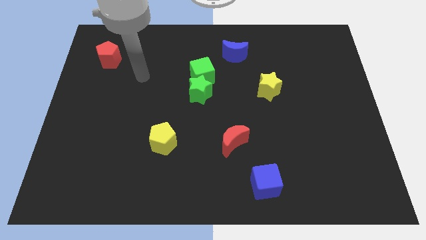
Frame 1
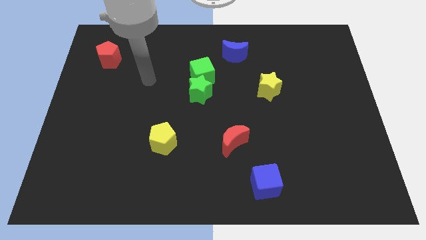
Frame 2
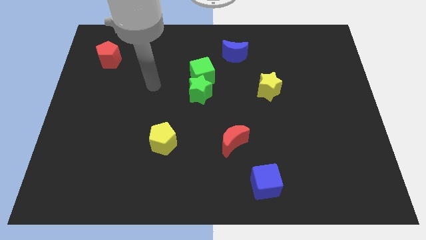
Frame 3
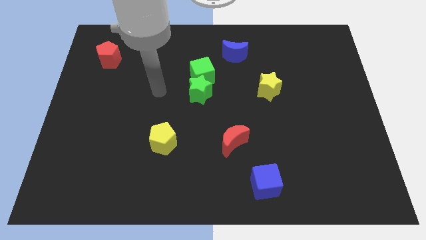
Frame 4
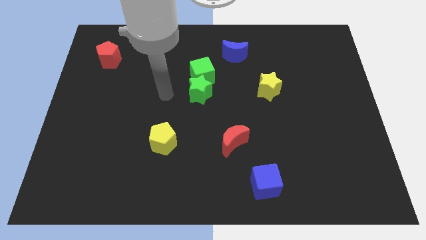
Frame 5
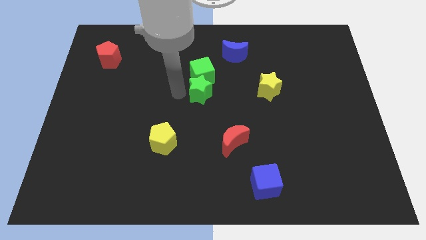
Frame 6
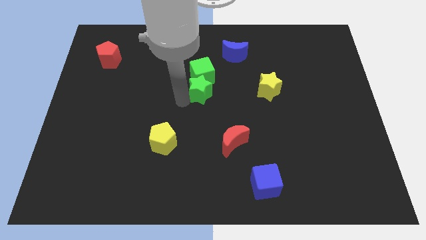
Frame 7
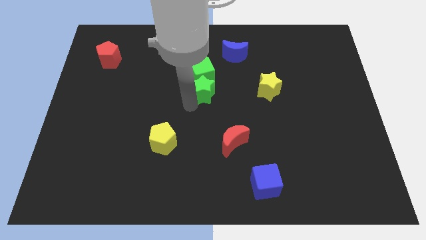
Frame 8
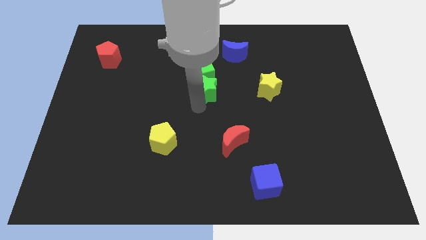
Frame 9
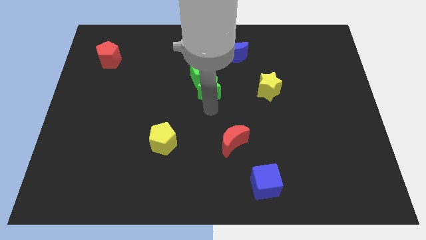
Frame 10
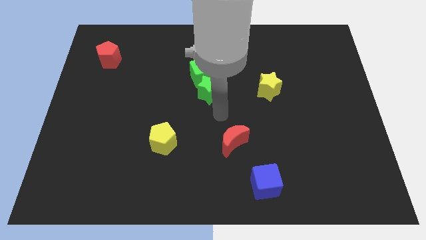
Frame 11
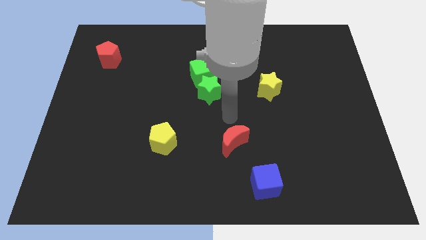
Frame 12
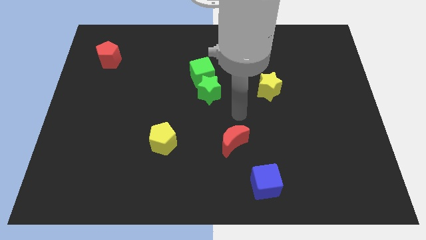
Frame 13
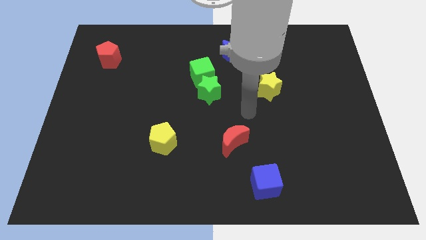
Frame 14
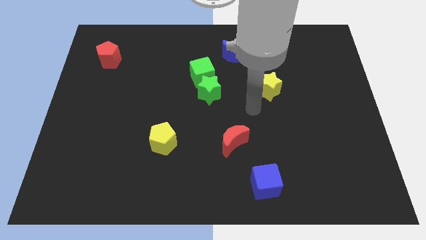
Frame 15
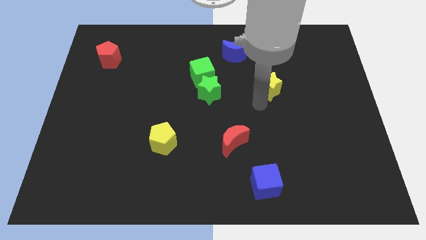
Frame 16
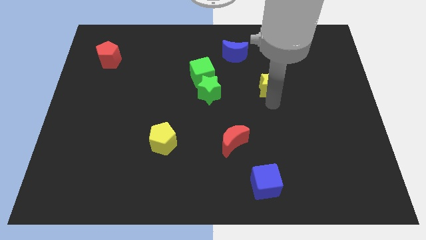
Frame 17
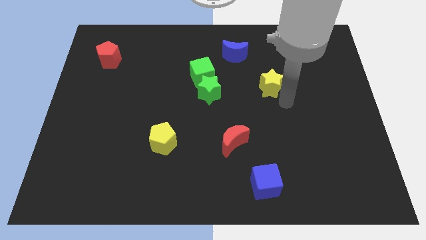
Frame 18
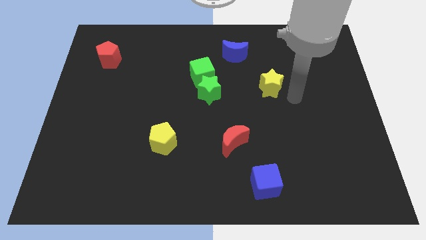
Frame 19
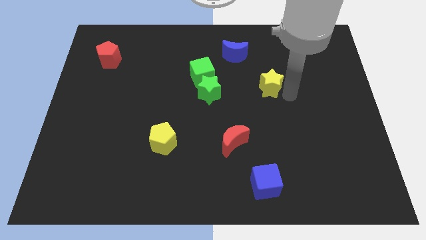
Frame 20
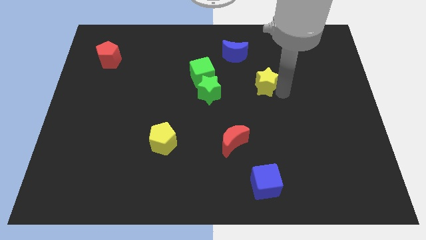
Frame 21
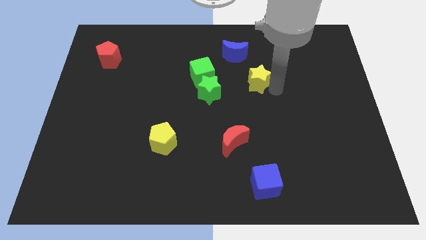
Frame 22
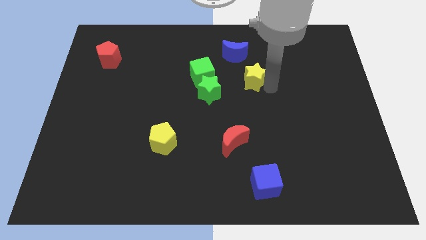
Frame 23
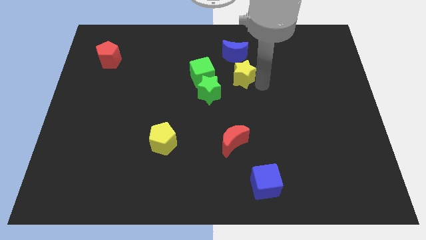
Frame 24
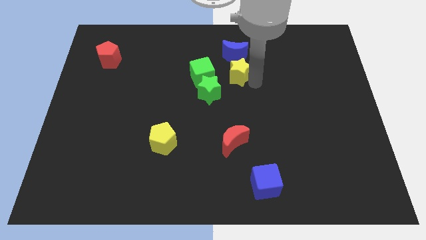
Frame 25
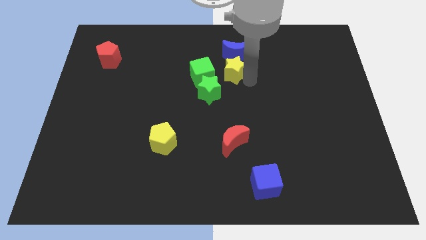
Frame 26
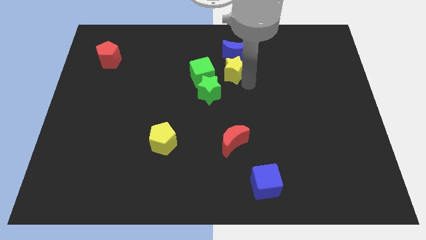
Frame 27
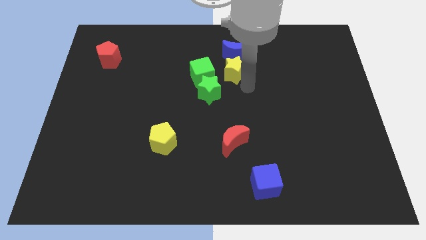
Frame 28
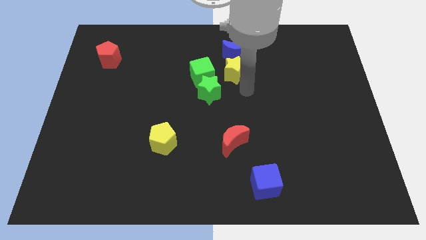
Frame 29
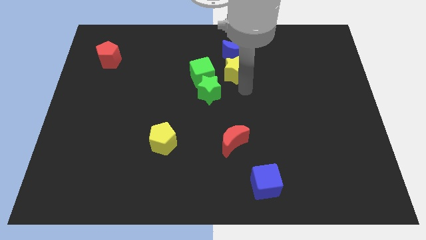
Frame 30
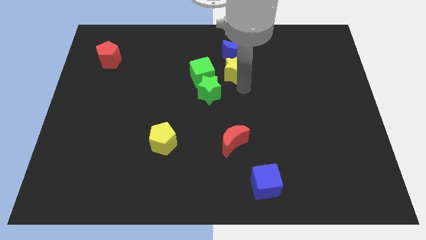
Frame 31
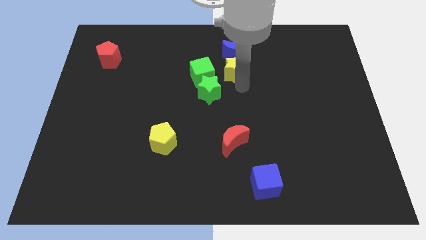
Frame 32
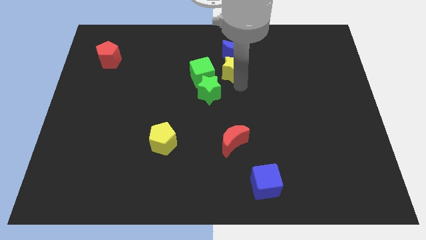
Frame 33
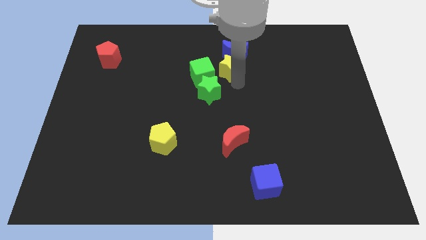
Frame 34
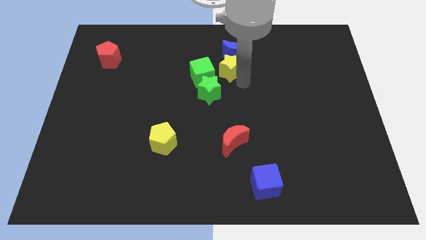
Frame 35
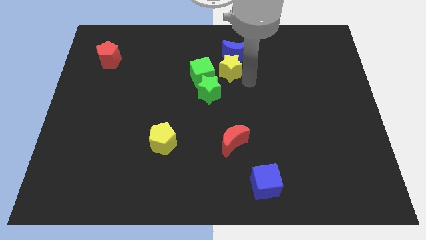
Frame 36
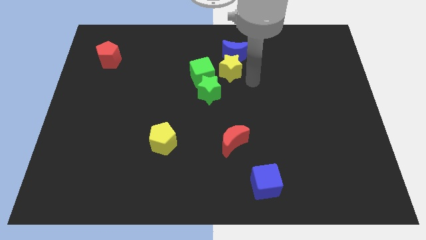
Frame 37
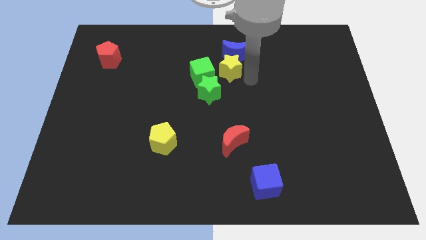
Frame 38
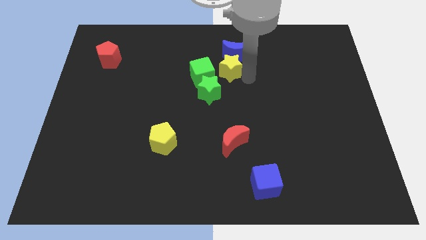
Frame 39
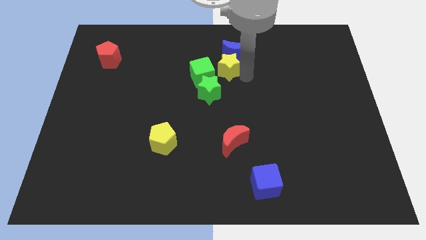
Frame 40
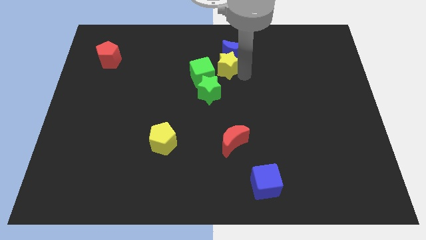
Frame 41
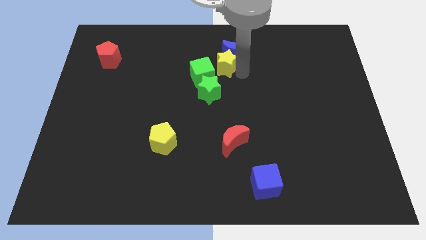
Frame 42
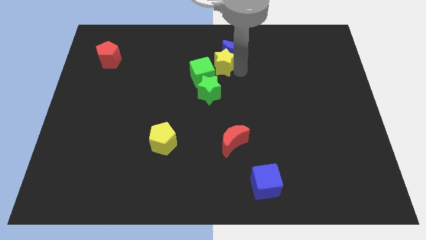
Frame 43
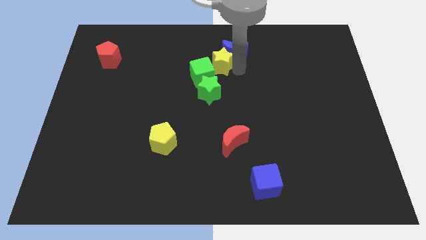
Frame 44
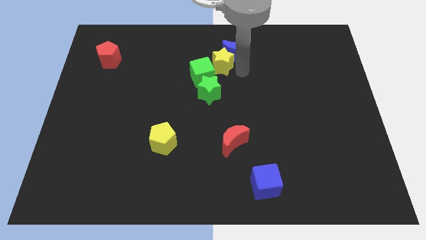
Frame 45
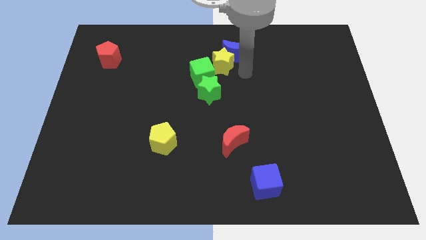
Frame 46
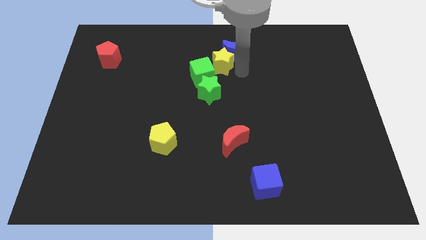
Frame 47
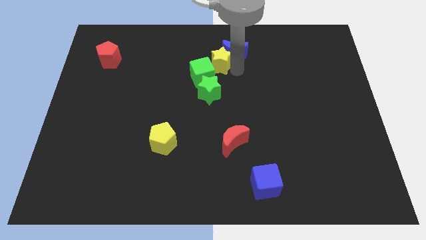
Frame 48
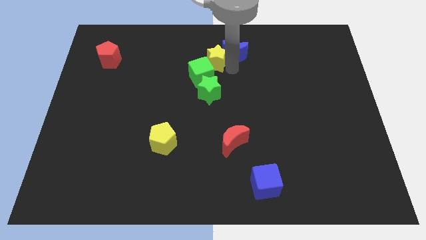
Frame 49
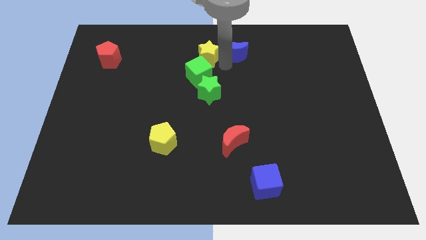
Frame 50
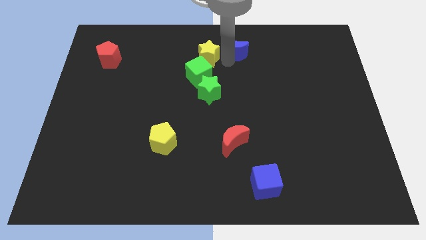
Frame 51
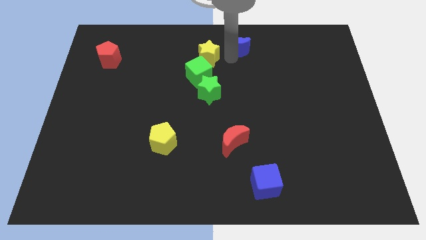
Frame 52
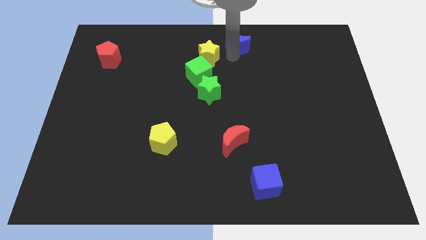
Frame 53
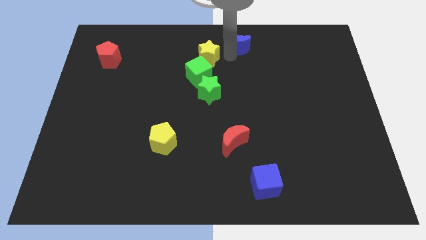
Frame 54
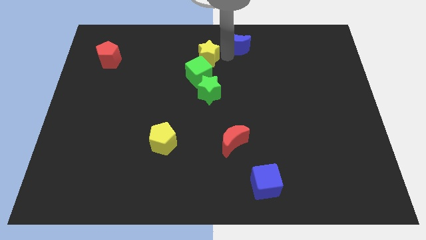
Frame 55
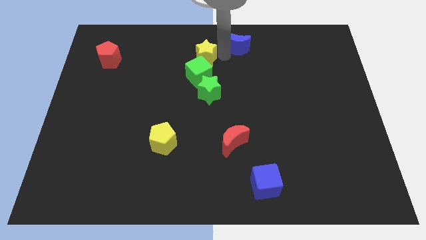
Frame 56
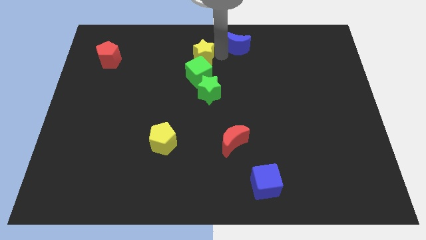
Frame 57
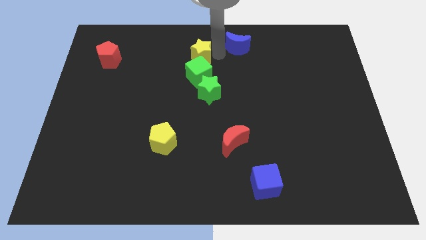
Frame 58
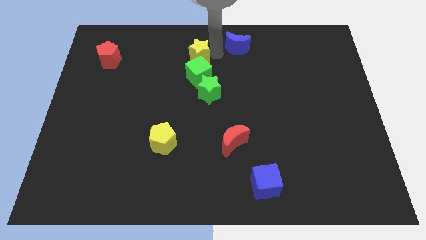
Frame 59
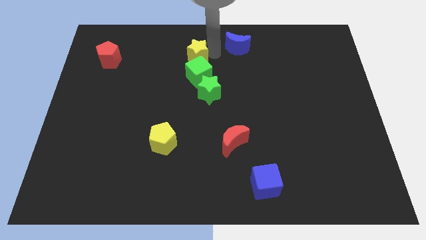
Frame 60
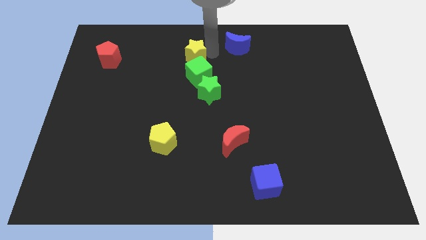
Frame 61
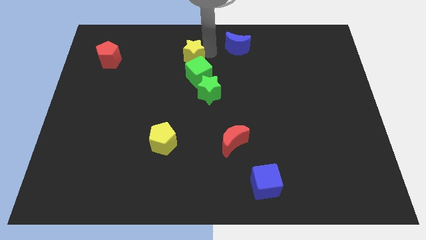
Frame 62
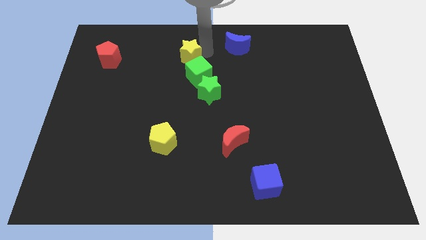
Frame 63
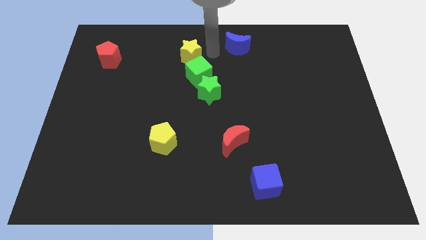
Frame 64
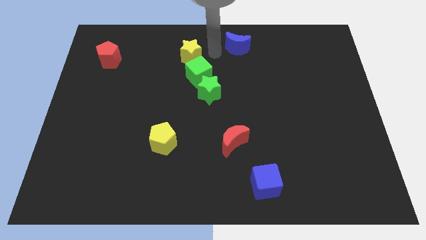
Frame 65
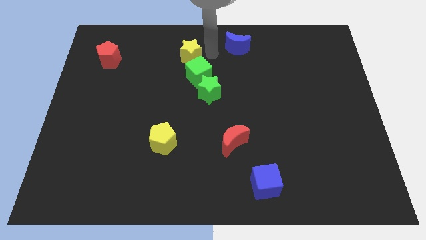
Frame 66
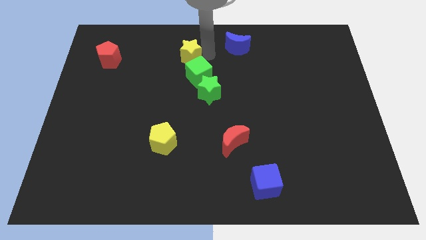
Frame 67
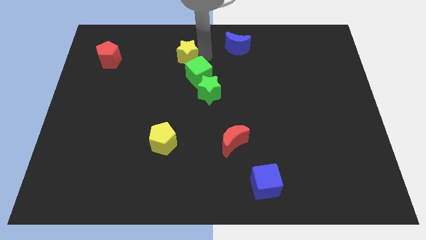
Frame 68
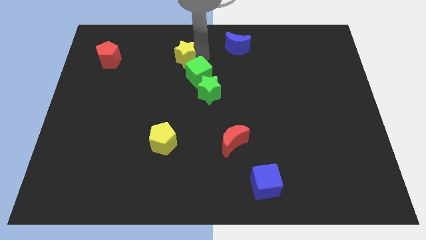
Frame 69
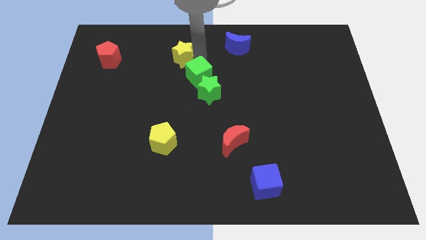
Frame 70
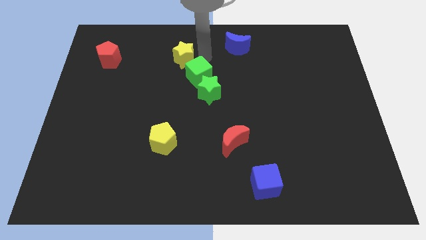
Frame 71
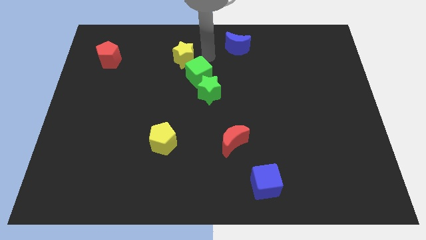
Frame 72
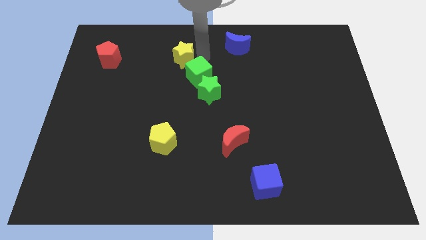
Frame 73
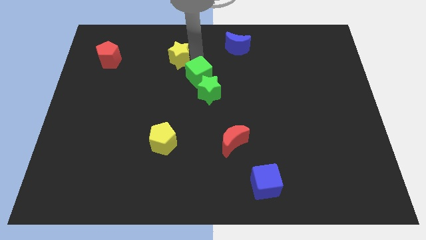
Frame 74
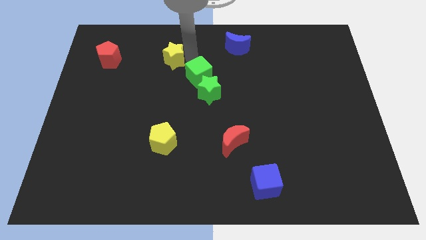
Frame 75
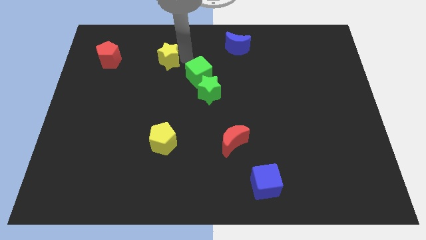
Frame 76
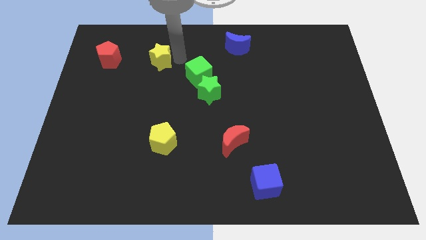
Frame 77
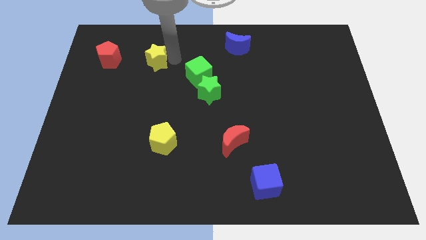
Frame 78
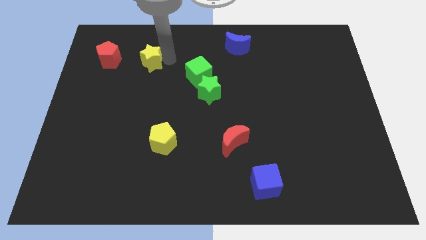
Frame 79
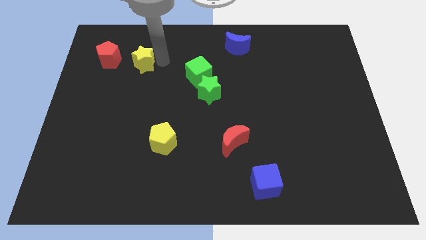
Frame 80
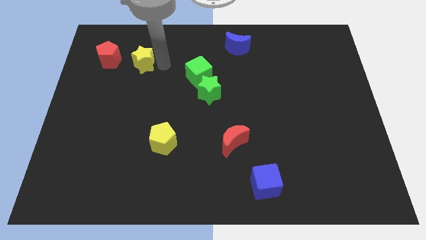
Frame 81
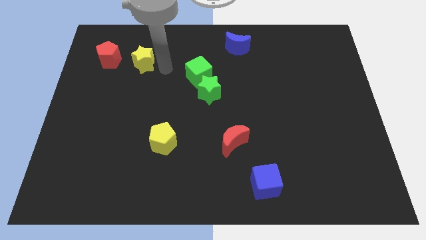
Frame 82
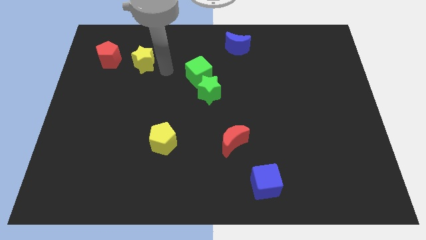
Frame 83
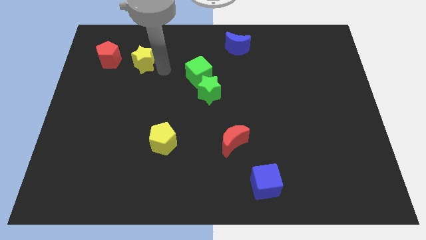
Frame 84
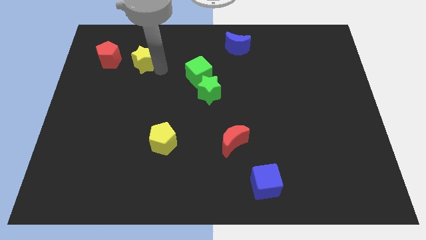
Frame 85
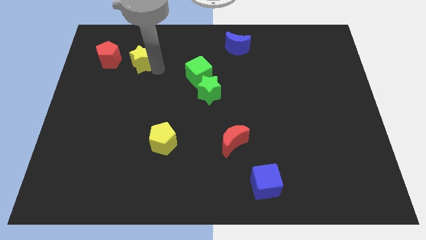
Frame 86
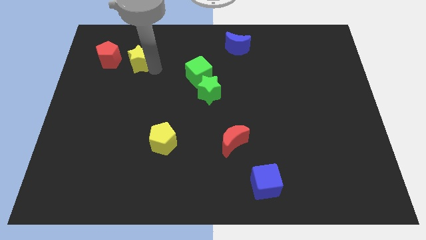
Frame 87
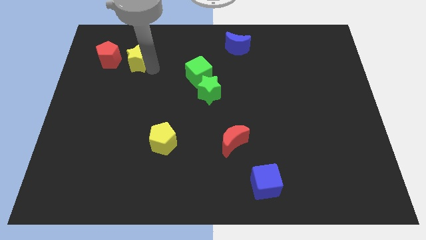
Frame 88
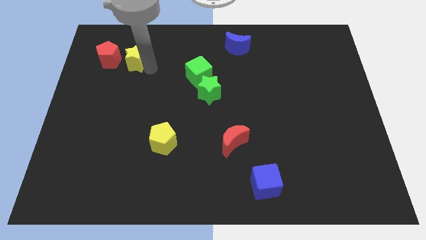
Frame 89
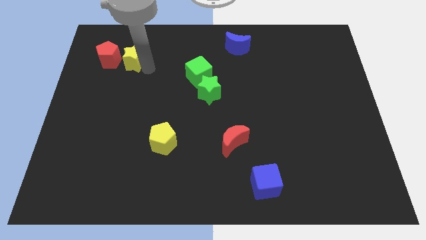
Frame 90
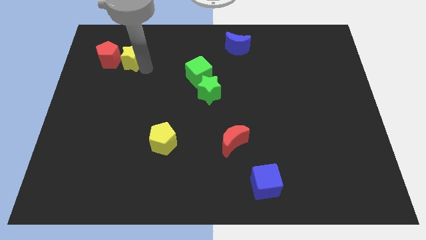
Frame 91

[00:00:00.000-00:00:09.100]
push the yellow star to the red pentagon
